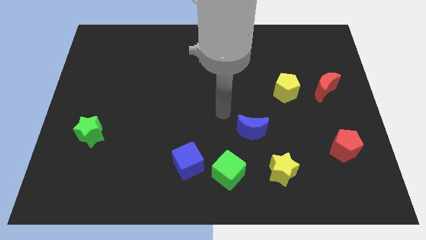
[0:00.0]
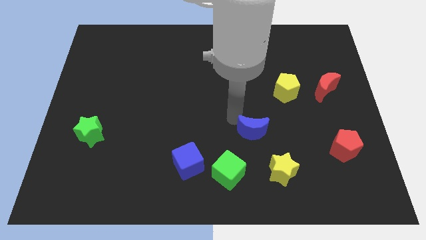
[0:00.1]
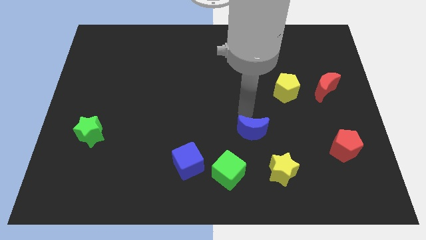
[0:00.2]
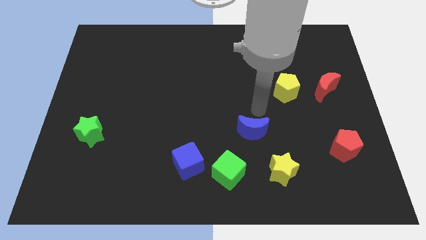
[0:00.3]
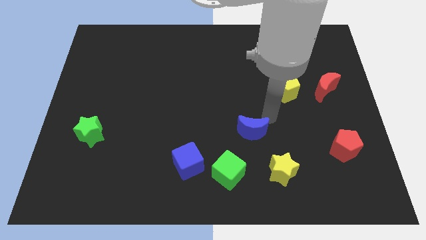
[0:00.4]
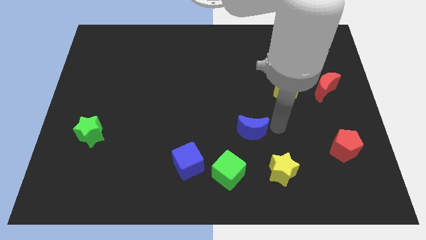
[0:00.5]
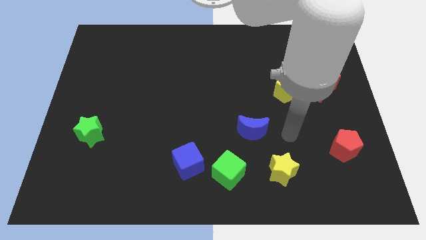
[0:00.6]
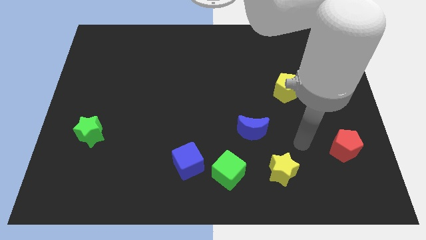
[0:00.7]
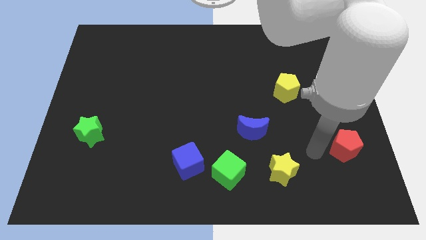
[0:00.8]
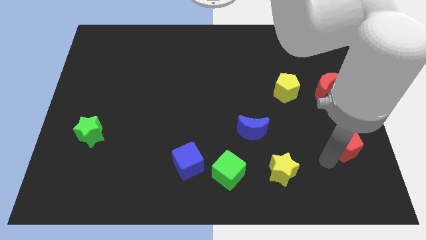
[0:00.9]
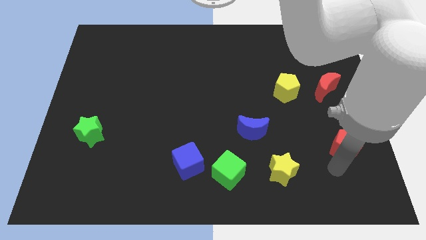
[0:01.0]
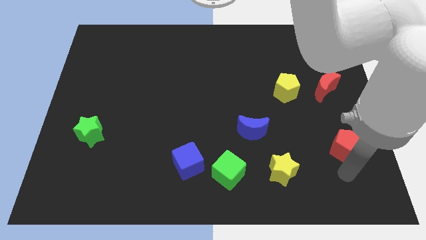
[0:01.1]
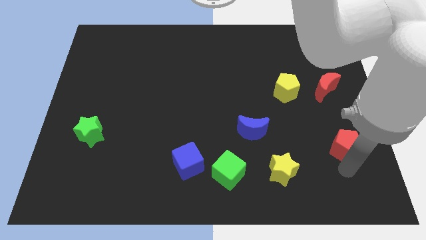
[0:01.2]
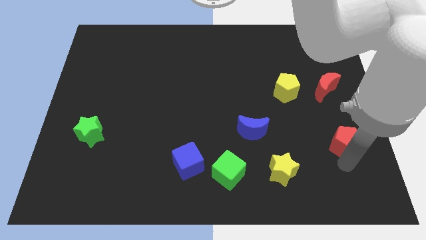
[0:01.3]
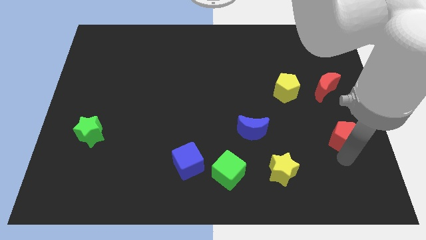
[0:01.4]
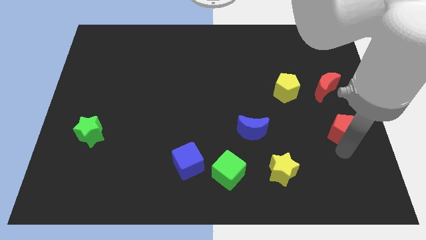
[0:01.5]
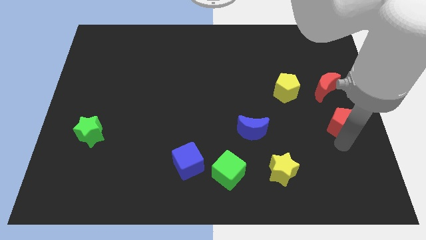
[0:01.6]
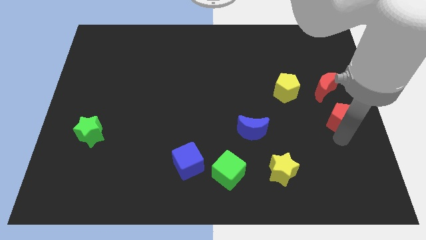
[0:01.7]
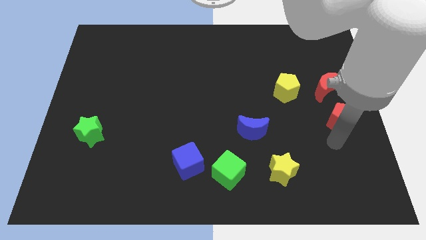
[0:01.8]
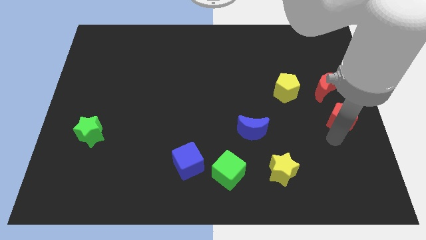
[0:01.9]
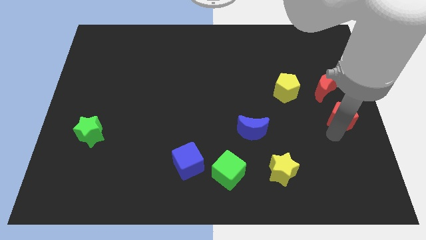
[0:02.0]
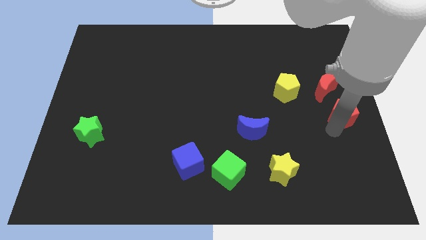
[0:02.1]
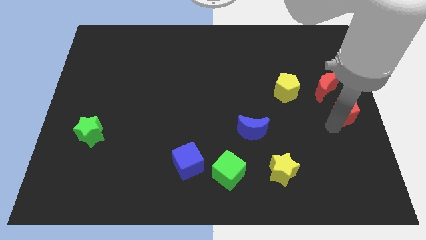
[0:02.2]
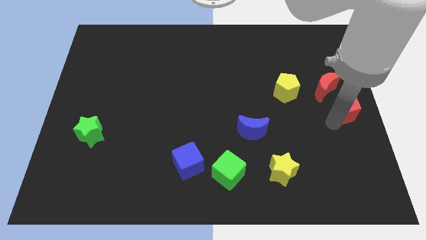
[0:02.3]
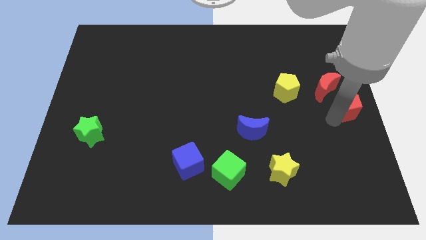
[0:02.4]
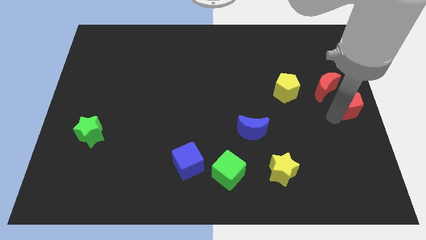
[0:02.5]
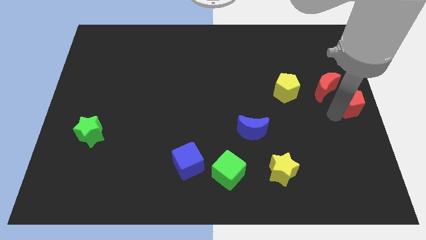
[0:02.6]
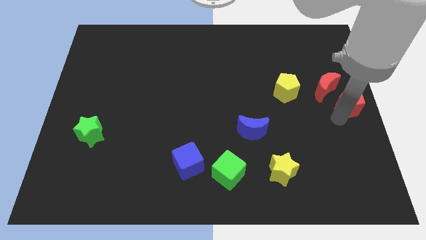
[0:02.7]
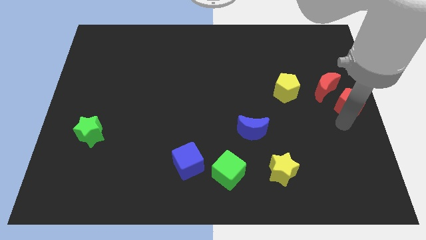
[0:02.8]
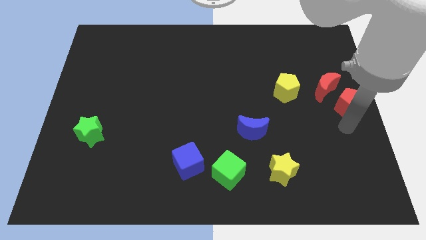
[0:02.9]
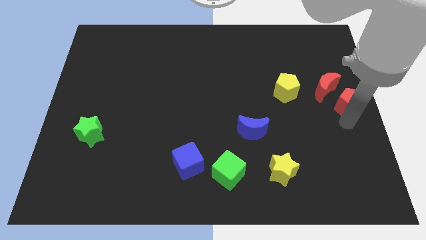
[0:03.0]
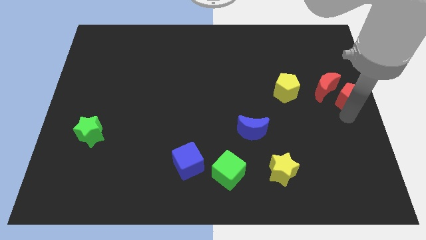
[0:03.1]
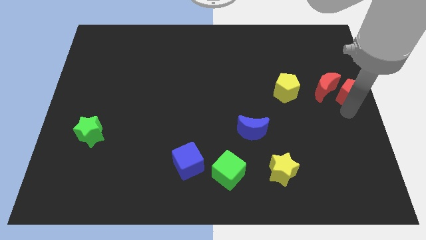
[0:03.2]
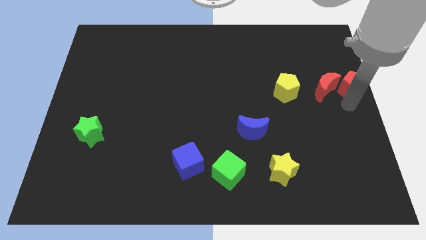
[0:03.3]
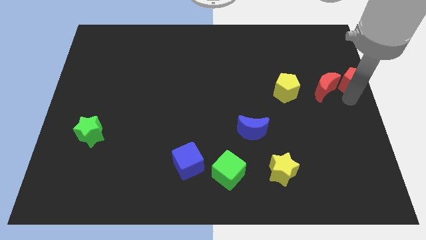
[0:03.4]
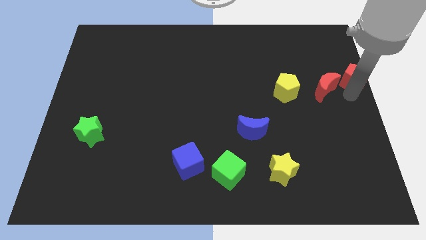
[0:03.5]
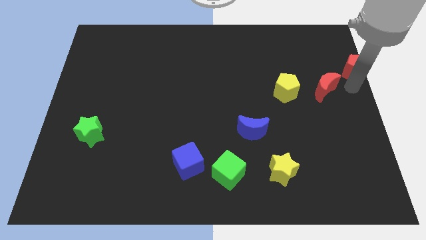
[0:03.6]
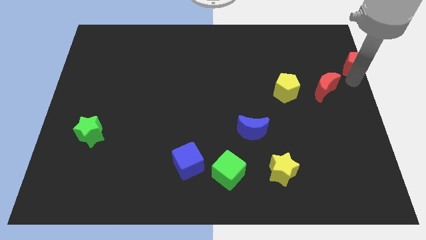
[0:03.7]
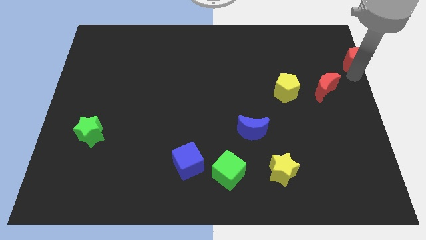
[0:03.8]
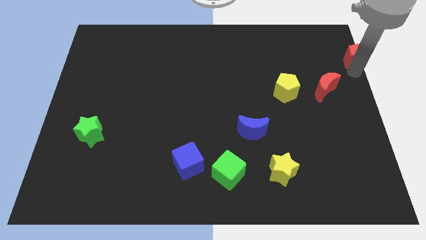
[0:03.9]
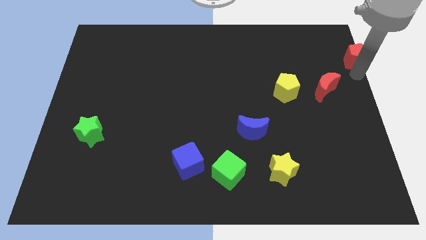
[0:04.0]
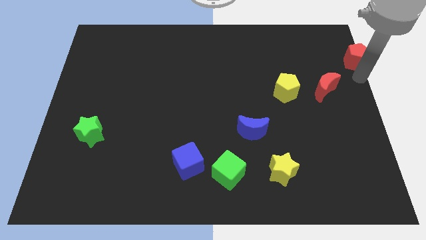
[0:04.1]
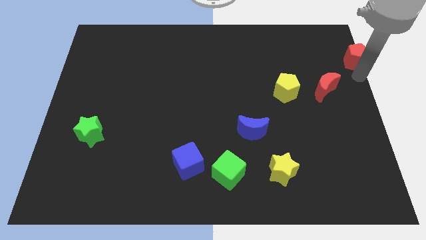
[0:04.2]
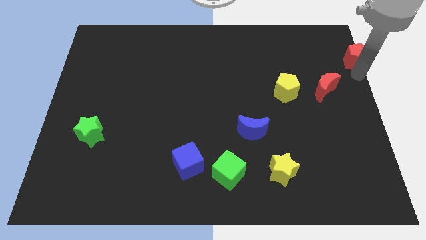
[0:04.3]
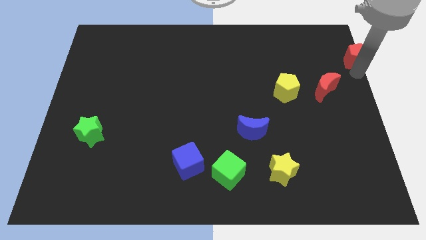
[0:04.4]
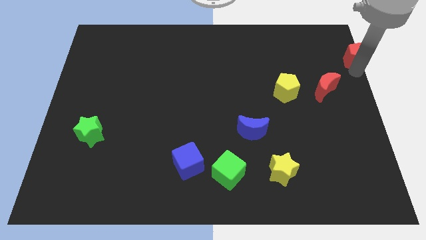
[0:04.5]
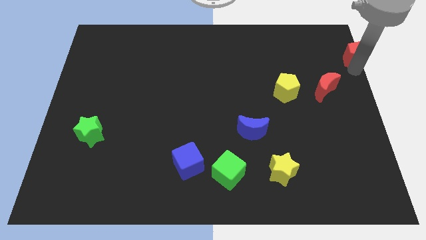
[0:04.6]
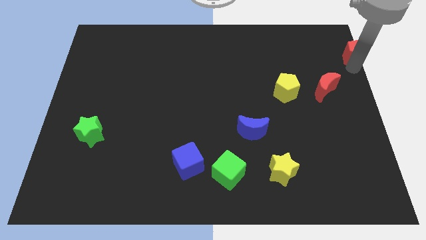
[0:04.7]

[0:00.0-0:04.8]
slide the red pentagon to the upper right corner

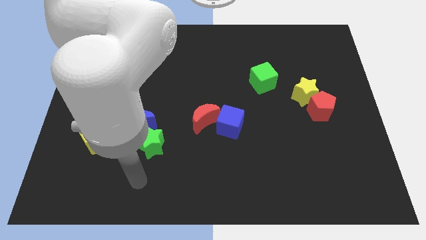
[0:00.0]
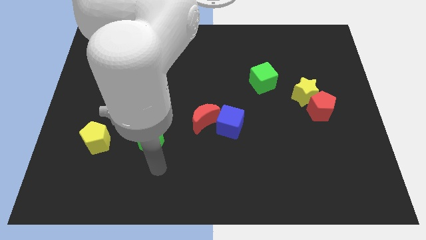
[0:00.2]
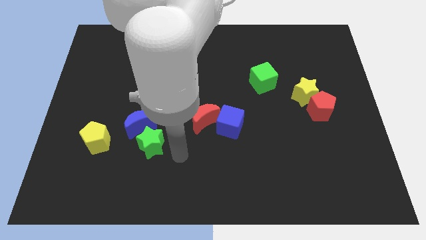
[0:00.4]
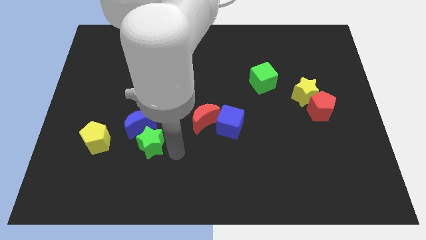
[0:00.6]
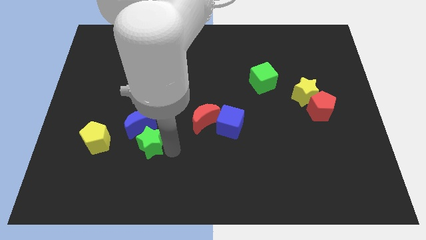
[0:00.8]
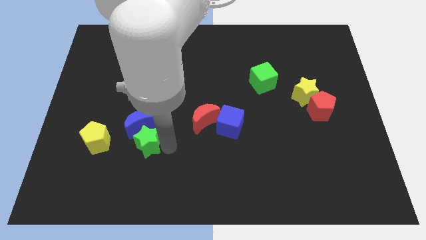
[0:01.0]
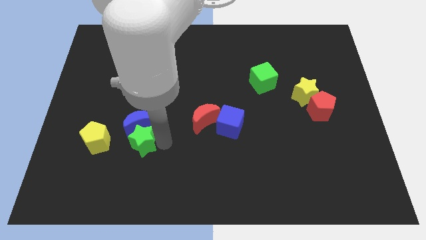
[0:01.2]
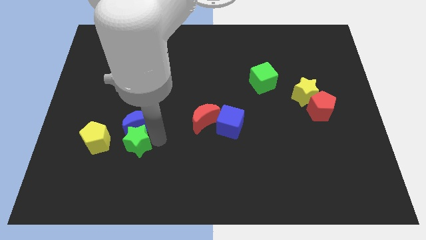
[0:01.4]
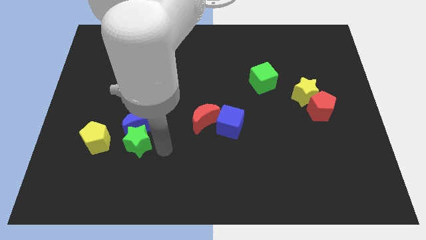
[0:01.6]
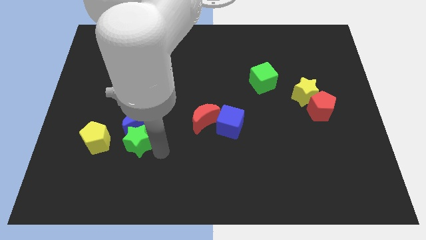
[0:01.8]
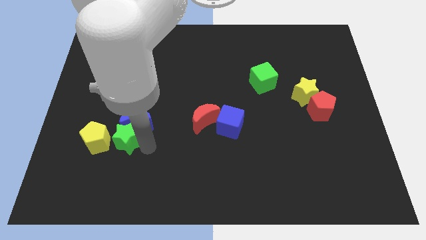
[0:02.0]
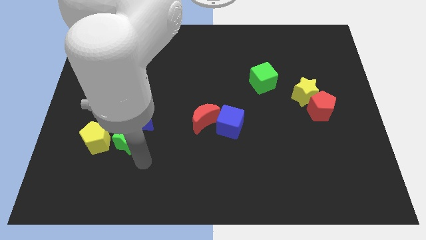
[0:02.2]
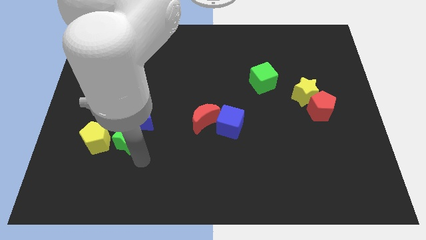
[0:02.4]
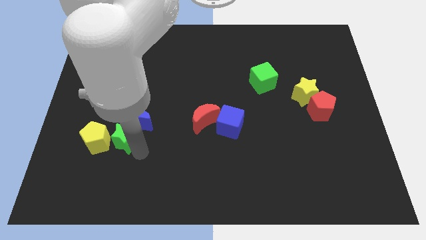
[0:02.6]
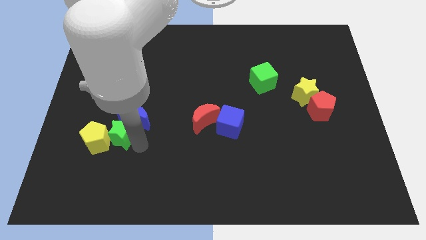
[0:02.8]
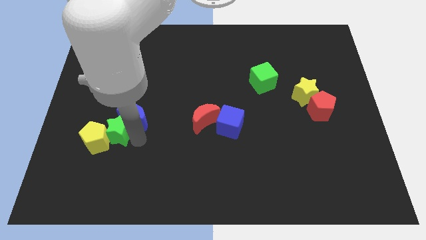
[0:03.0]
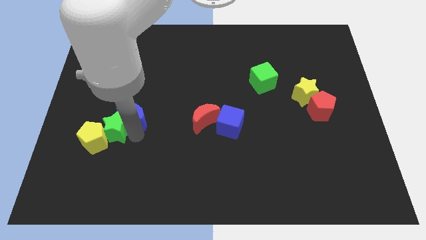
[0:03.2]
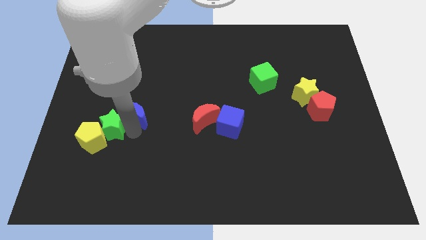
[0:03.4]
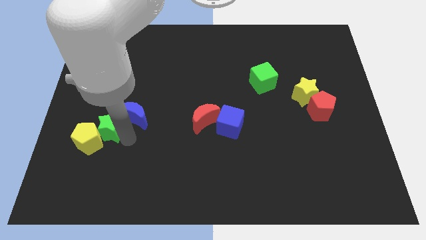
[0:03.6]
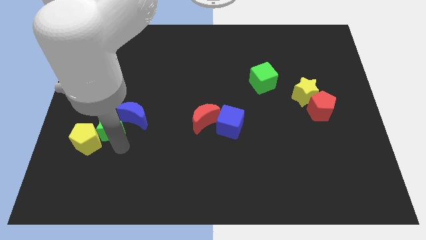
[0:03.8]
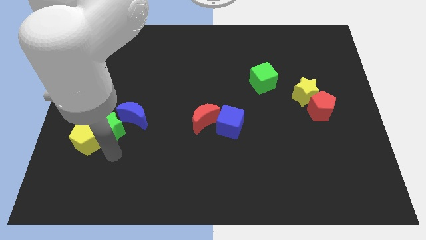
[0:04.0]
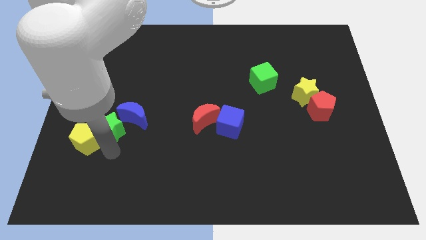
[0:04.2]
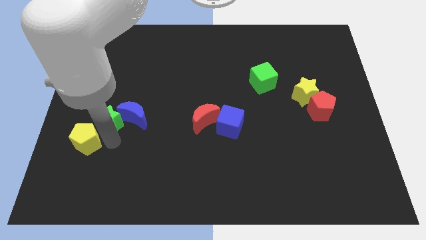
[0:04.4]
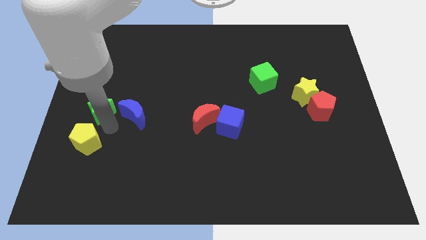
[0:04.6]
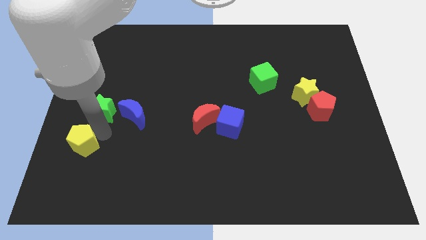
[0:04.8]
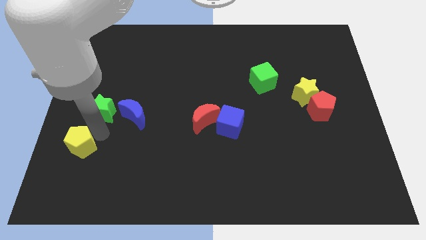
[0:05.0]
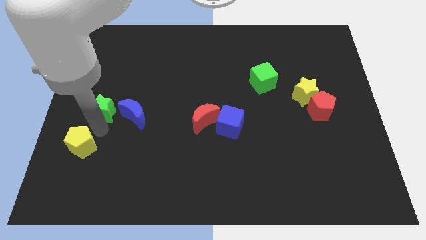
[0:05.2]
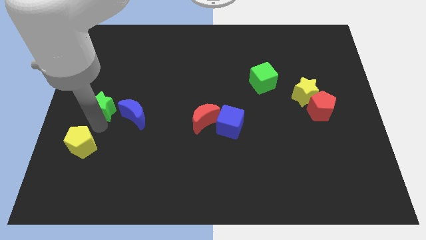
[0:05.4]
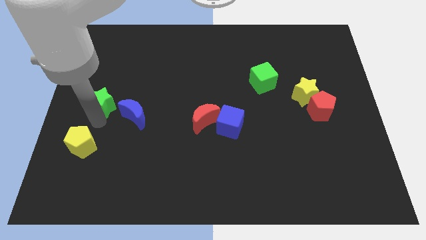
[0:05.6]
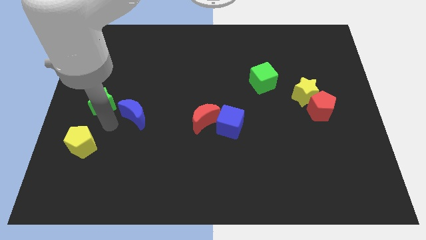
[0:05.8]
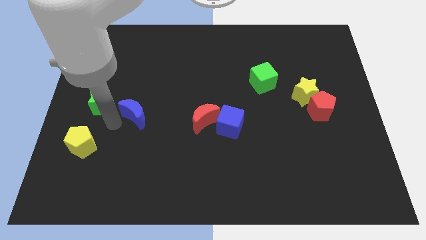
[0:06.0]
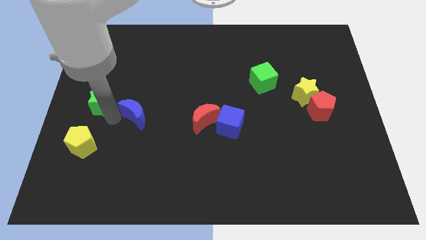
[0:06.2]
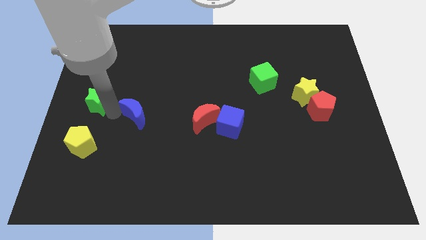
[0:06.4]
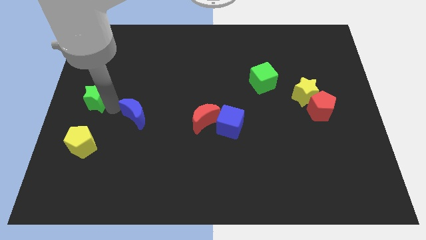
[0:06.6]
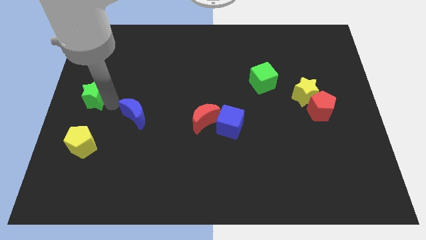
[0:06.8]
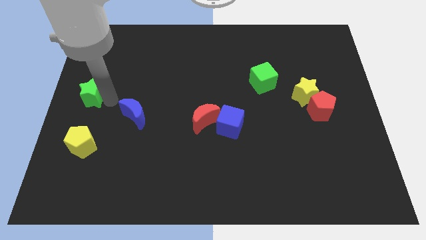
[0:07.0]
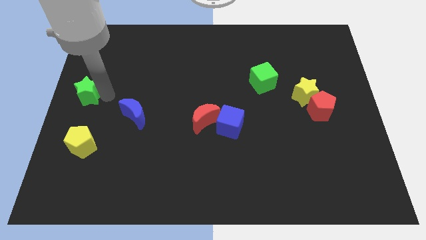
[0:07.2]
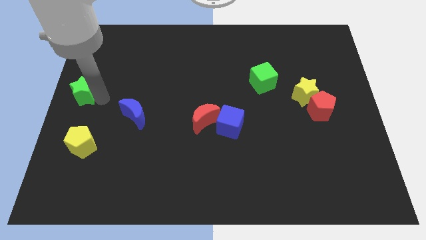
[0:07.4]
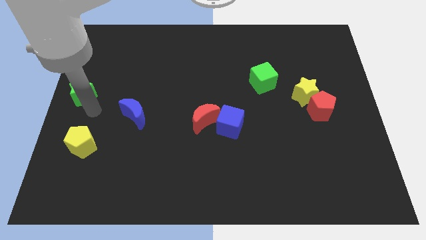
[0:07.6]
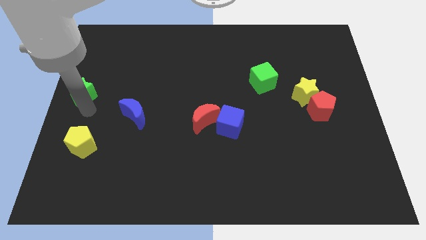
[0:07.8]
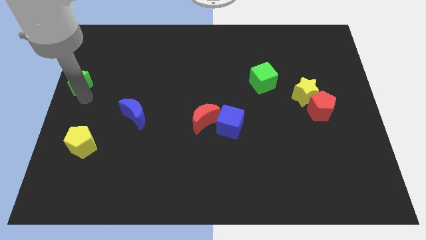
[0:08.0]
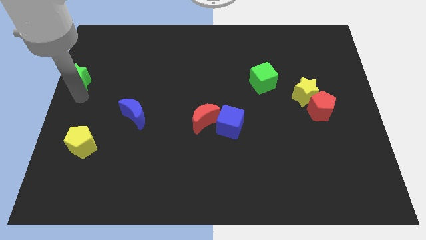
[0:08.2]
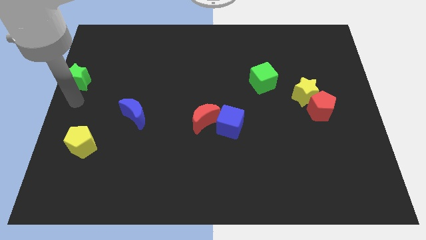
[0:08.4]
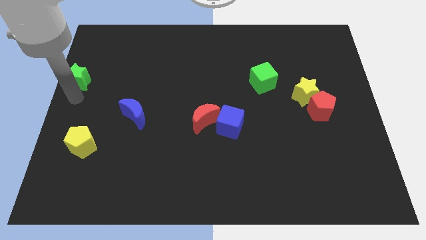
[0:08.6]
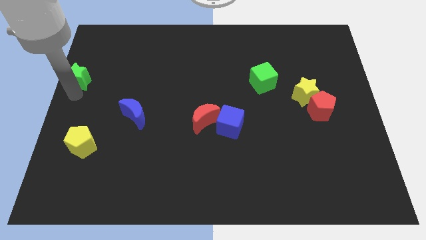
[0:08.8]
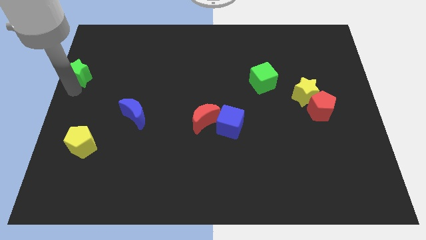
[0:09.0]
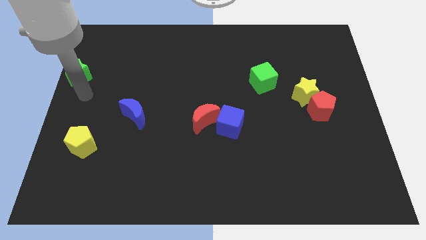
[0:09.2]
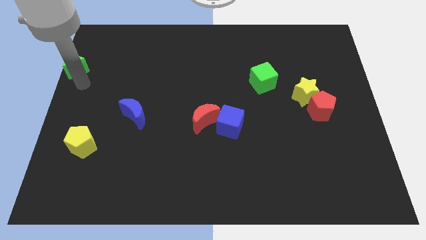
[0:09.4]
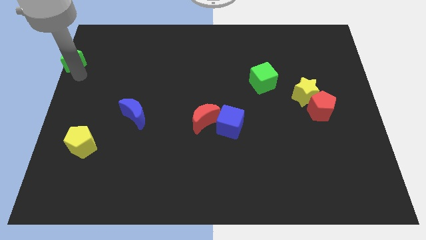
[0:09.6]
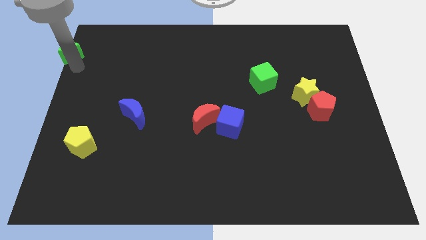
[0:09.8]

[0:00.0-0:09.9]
push the green star to the top left corner
